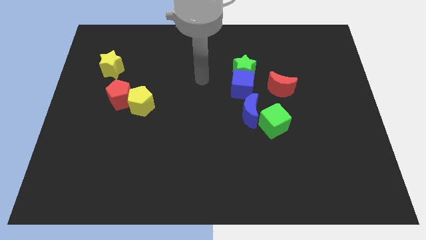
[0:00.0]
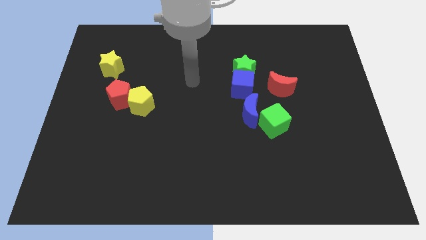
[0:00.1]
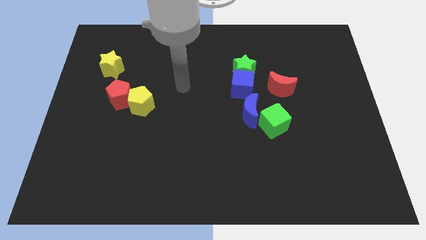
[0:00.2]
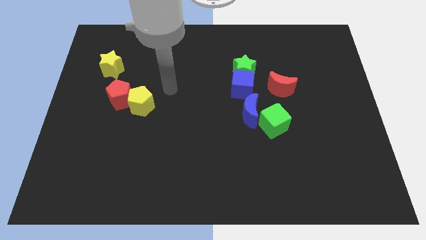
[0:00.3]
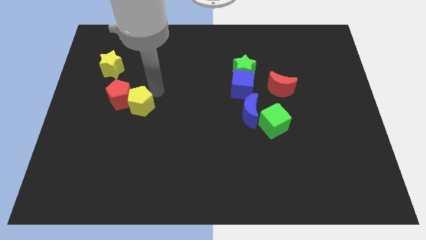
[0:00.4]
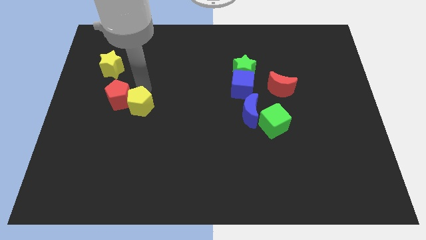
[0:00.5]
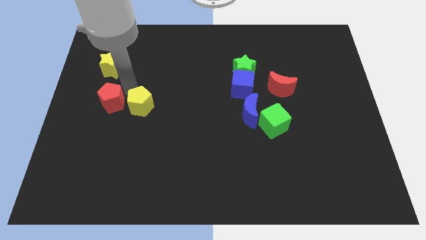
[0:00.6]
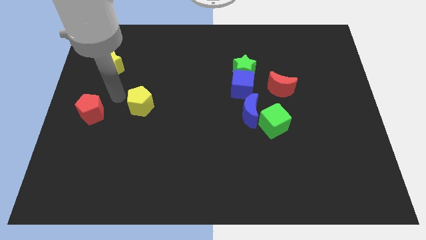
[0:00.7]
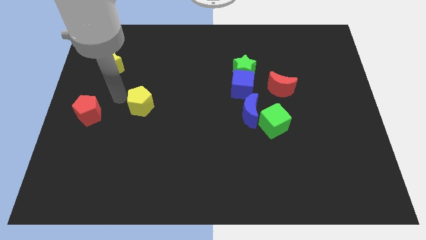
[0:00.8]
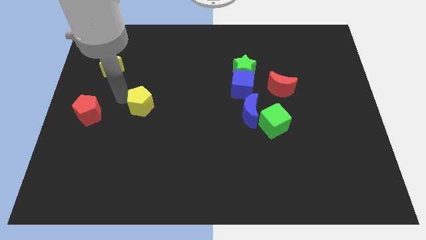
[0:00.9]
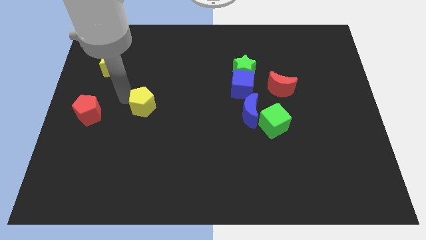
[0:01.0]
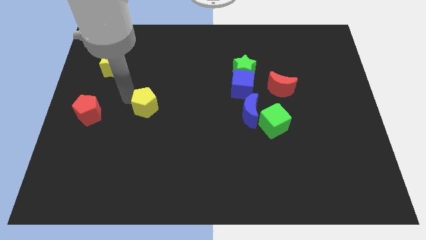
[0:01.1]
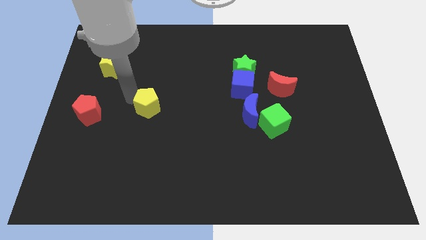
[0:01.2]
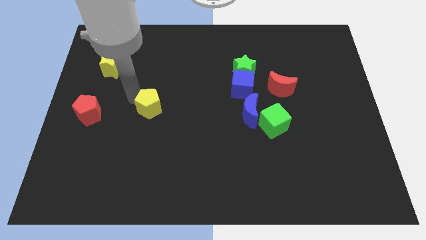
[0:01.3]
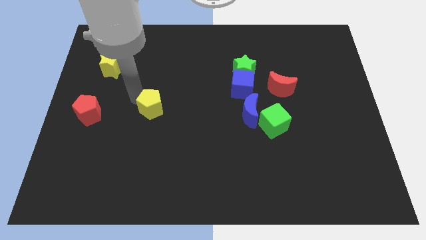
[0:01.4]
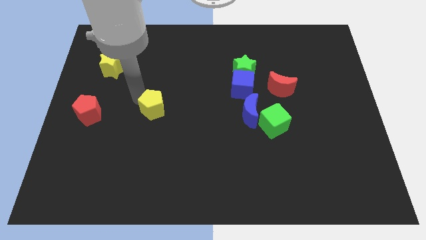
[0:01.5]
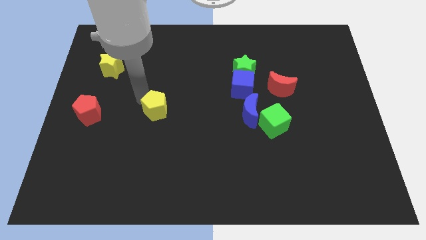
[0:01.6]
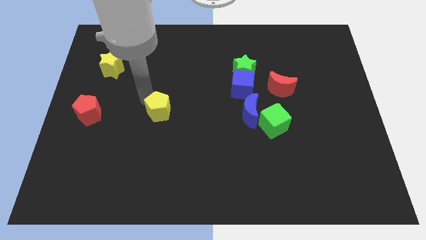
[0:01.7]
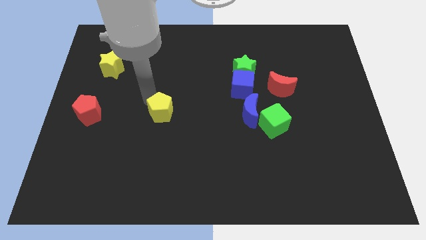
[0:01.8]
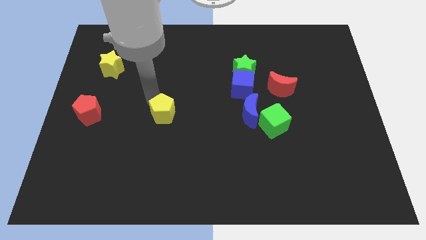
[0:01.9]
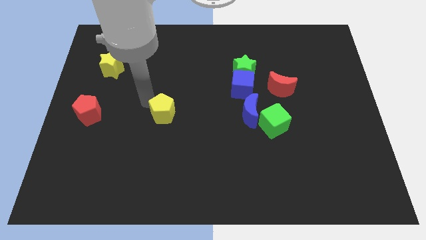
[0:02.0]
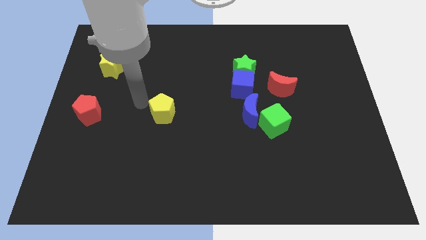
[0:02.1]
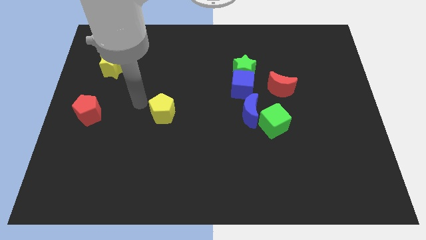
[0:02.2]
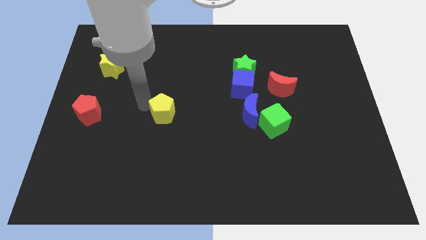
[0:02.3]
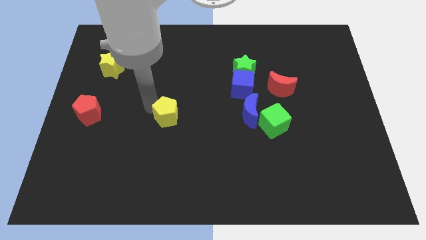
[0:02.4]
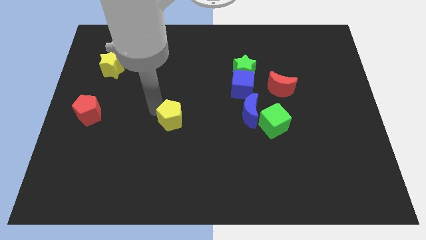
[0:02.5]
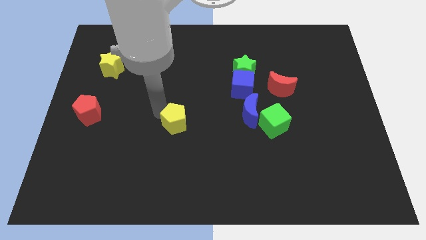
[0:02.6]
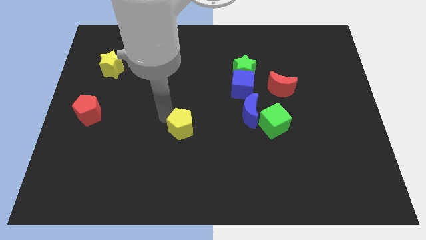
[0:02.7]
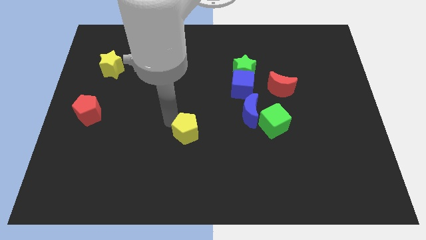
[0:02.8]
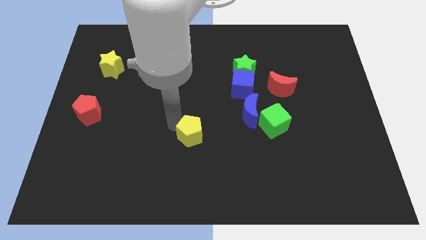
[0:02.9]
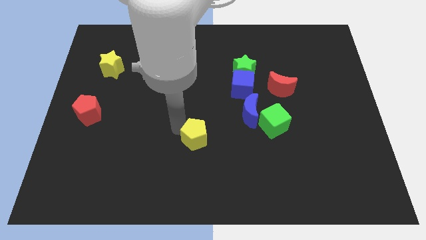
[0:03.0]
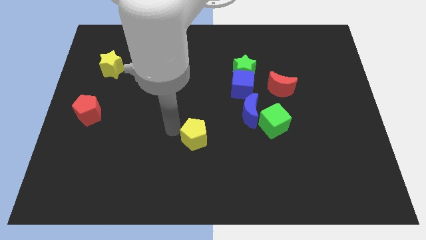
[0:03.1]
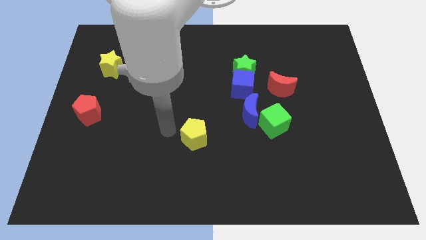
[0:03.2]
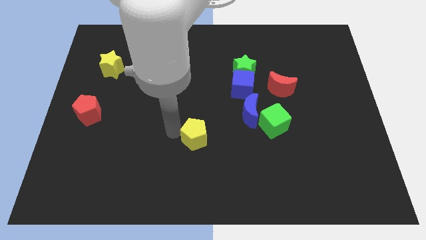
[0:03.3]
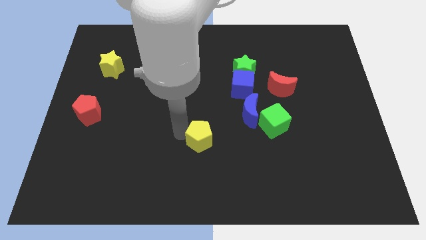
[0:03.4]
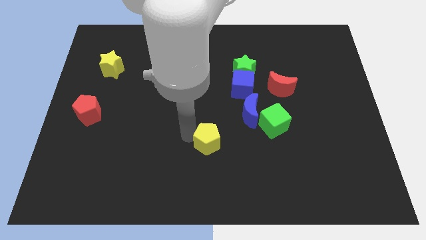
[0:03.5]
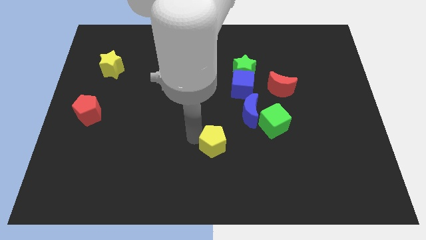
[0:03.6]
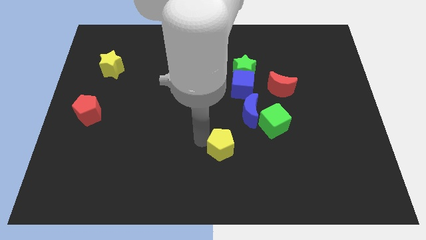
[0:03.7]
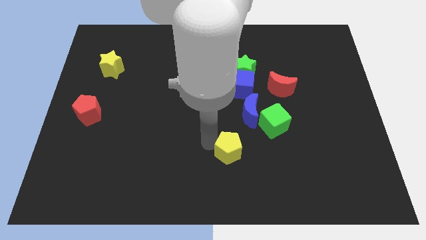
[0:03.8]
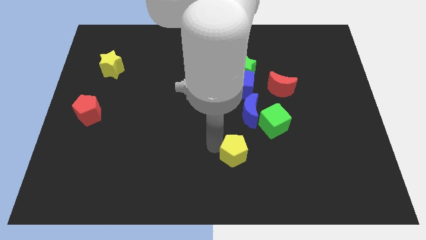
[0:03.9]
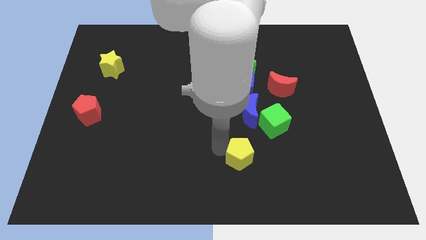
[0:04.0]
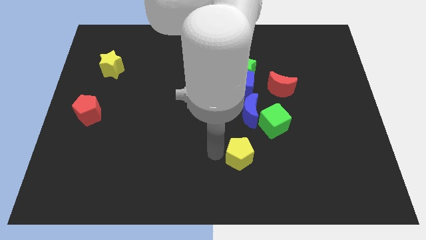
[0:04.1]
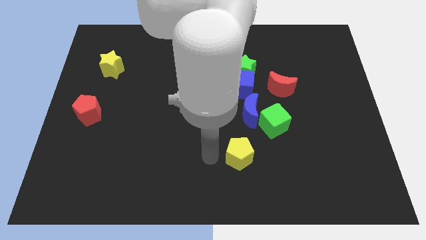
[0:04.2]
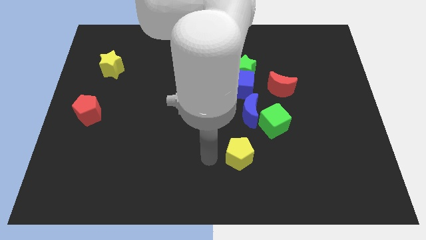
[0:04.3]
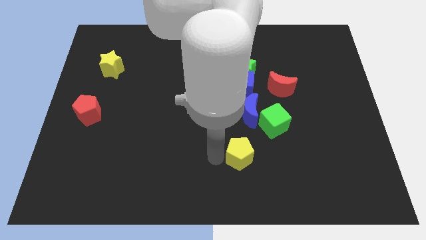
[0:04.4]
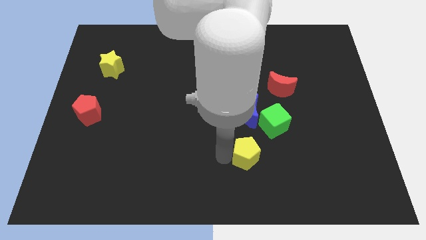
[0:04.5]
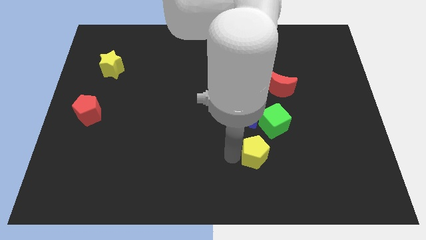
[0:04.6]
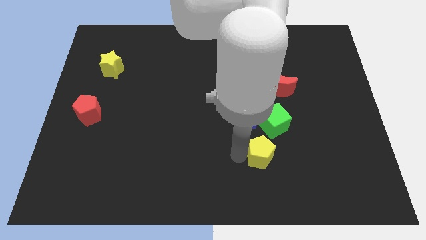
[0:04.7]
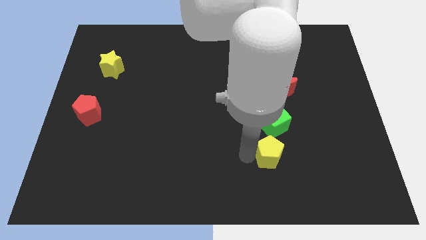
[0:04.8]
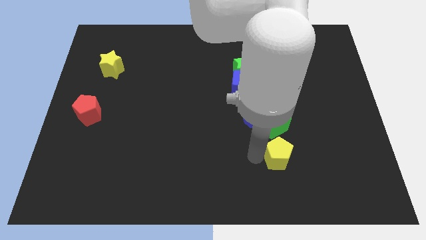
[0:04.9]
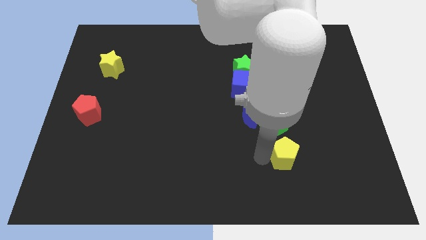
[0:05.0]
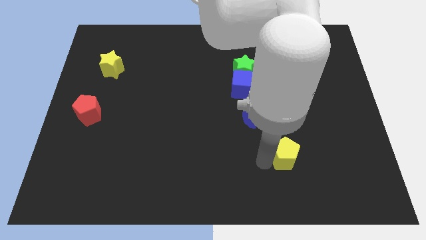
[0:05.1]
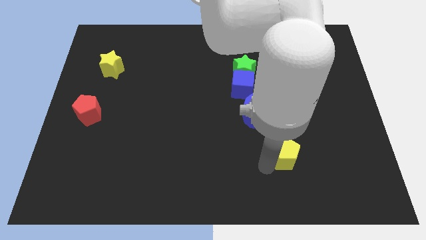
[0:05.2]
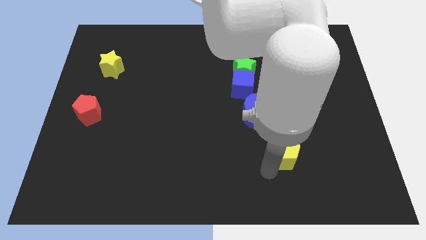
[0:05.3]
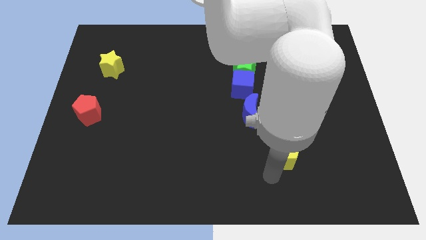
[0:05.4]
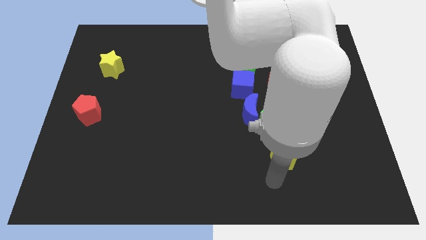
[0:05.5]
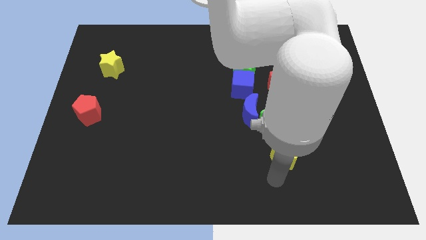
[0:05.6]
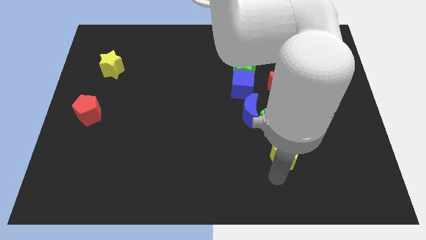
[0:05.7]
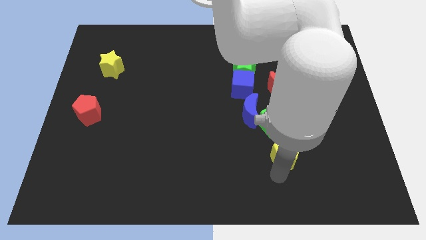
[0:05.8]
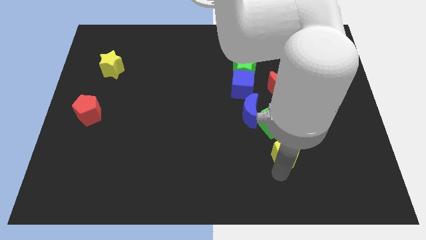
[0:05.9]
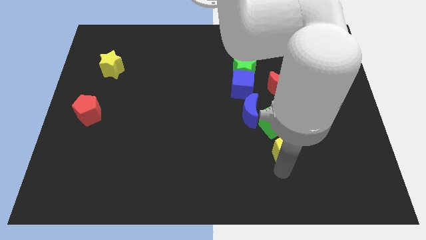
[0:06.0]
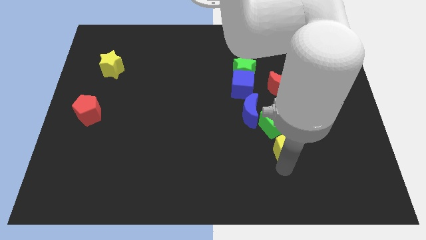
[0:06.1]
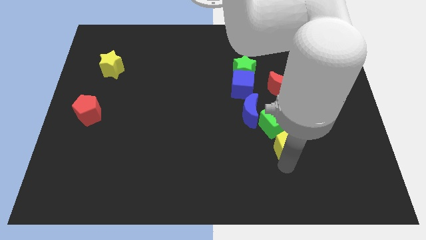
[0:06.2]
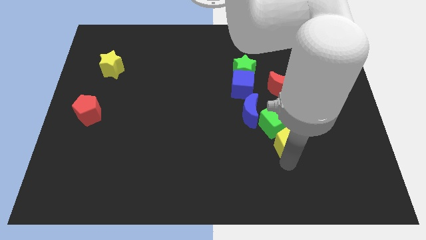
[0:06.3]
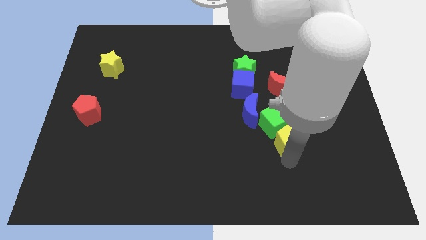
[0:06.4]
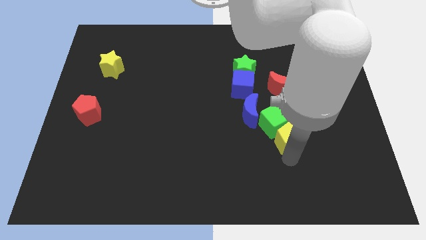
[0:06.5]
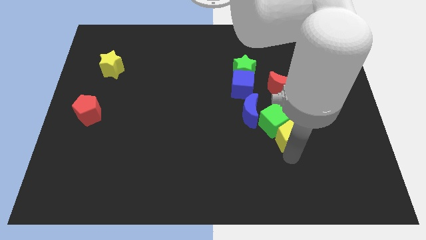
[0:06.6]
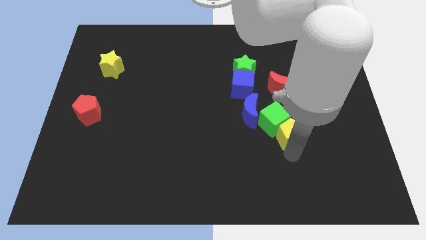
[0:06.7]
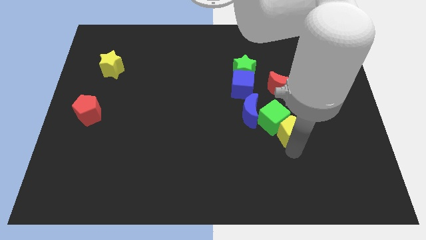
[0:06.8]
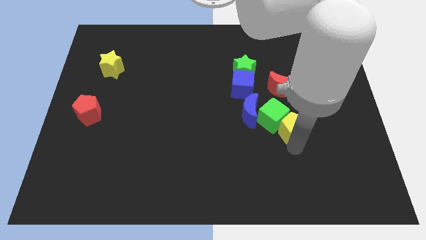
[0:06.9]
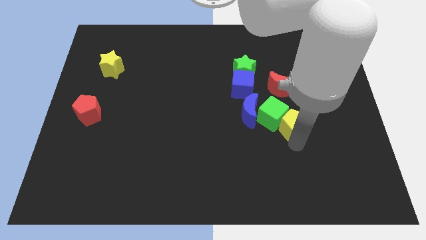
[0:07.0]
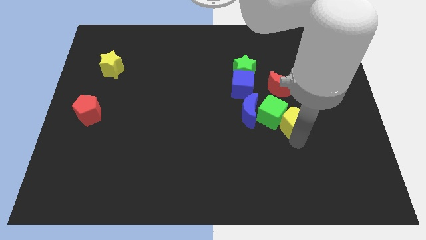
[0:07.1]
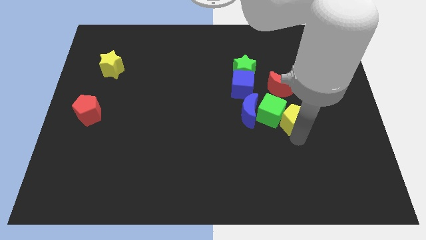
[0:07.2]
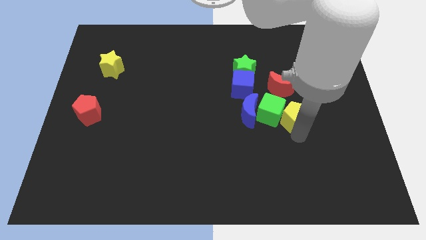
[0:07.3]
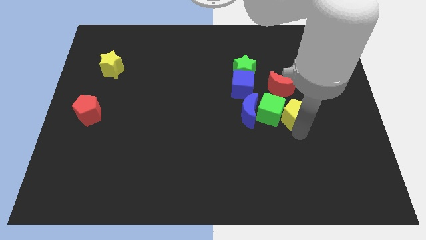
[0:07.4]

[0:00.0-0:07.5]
move the yellow pentagon diagonally down and to the right of the red moon
